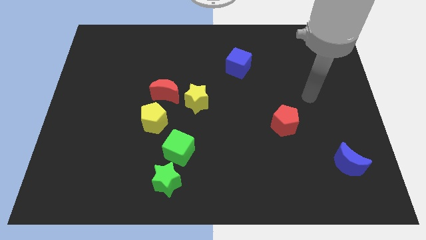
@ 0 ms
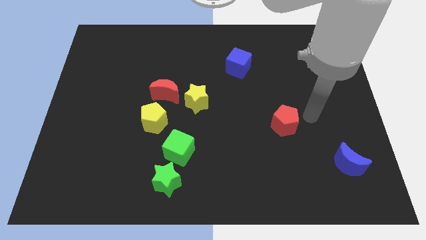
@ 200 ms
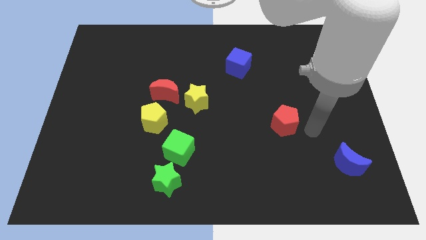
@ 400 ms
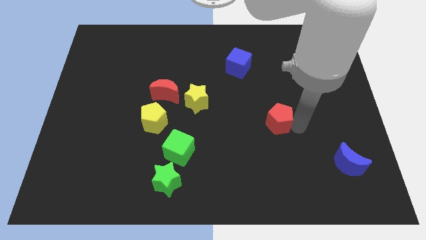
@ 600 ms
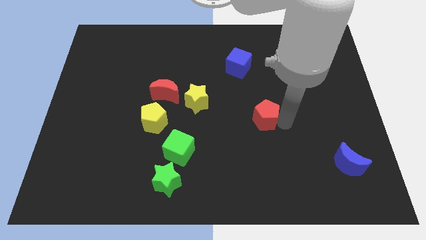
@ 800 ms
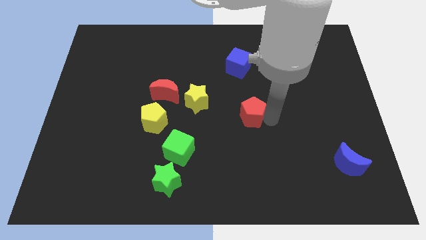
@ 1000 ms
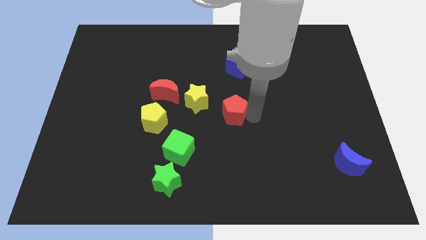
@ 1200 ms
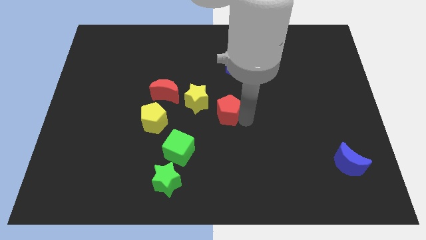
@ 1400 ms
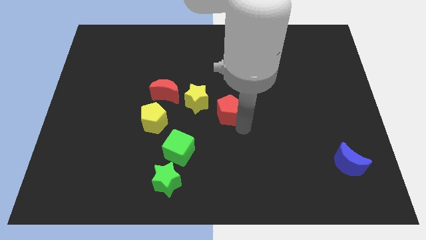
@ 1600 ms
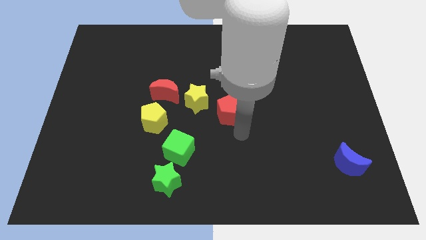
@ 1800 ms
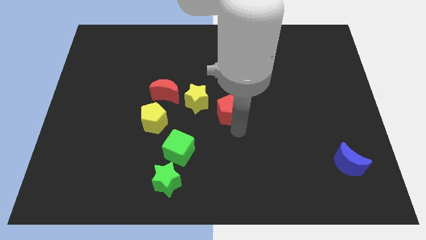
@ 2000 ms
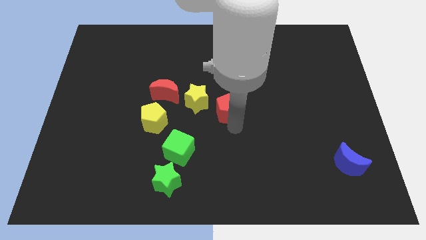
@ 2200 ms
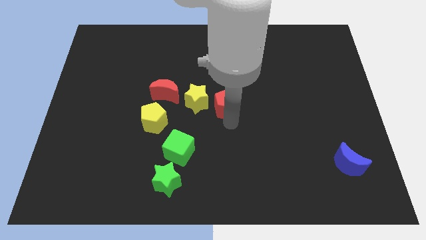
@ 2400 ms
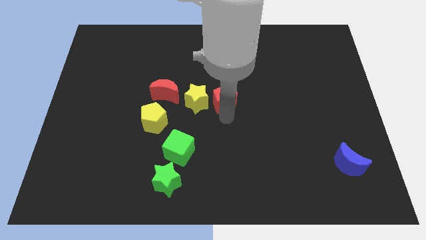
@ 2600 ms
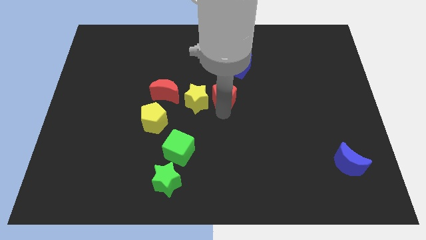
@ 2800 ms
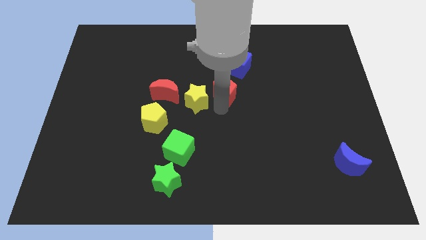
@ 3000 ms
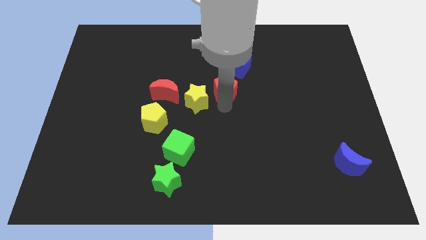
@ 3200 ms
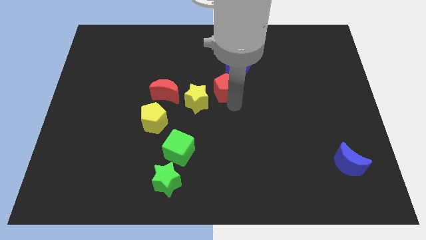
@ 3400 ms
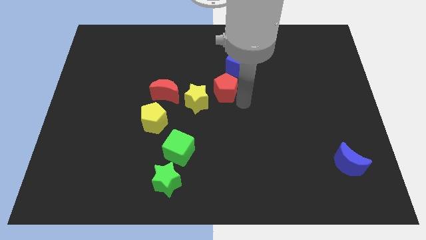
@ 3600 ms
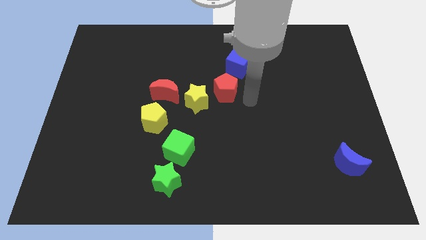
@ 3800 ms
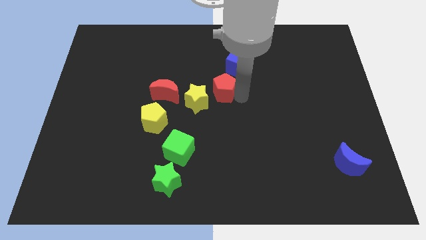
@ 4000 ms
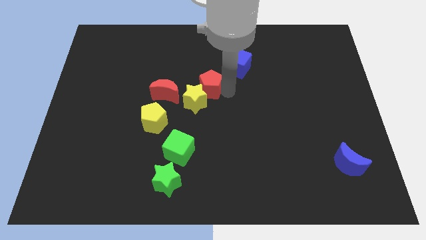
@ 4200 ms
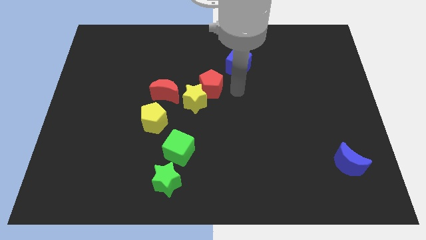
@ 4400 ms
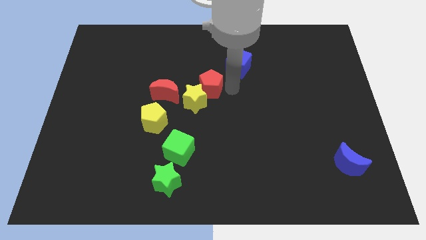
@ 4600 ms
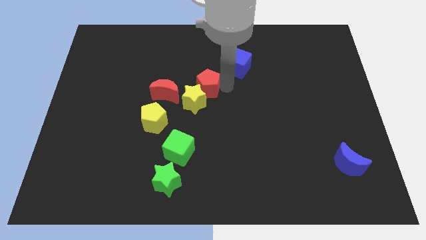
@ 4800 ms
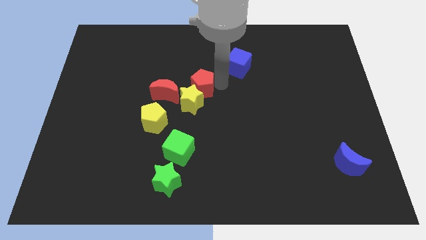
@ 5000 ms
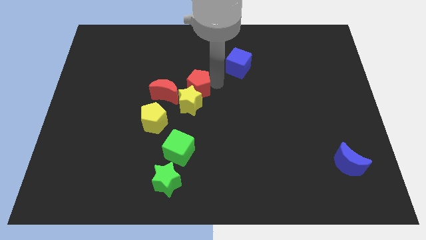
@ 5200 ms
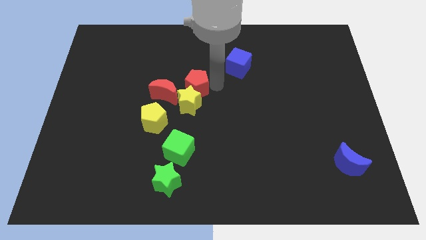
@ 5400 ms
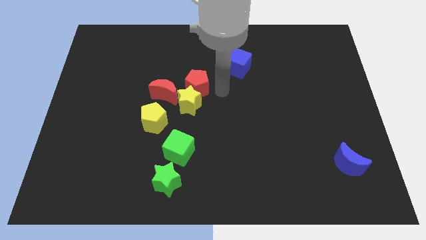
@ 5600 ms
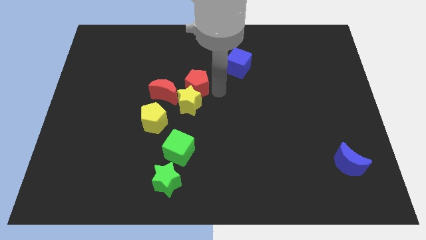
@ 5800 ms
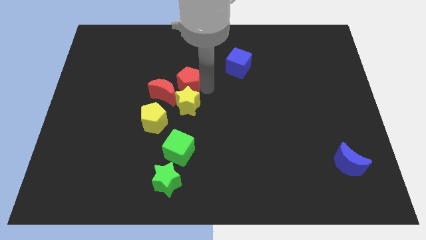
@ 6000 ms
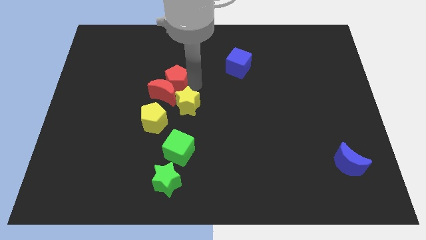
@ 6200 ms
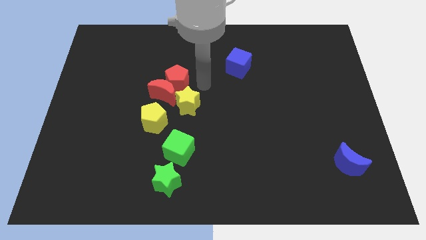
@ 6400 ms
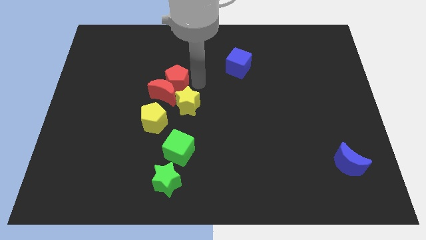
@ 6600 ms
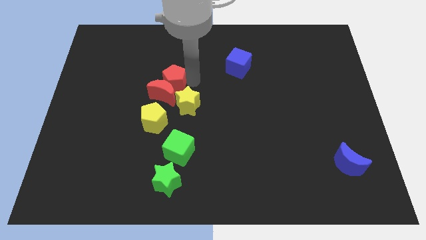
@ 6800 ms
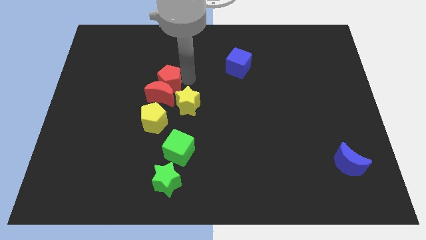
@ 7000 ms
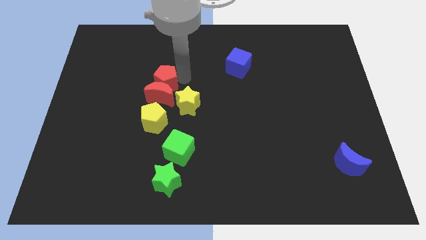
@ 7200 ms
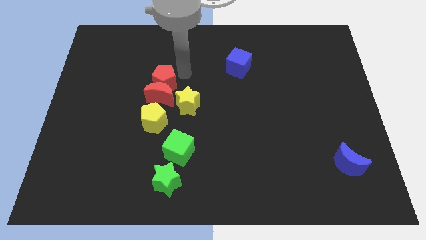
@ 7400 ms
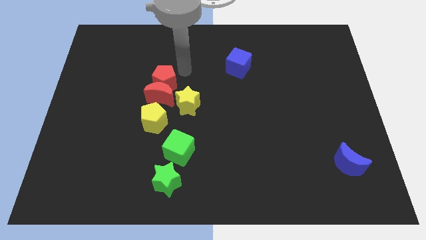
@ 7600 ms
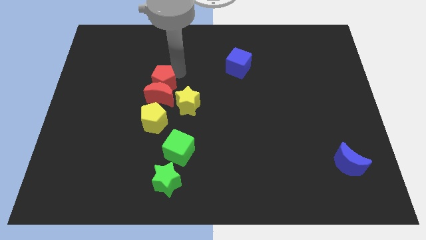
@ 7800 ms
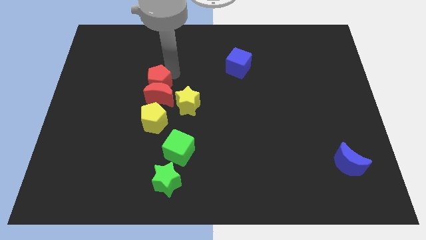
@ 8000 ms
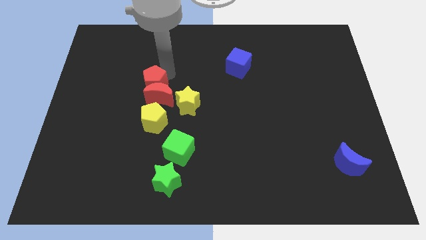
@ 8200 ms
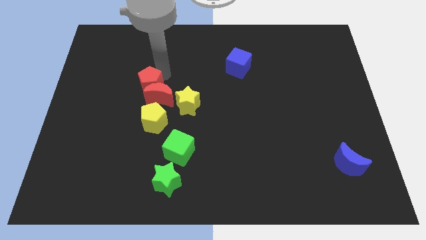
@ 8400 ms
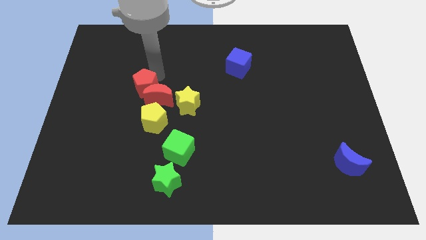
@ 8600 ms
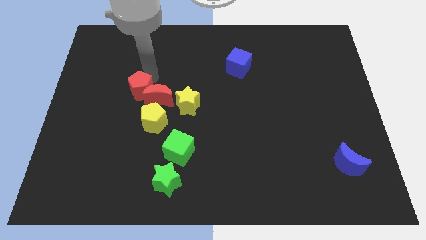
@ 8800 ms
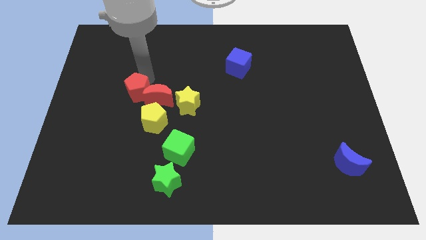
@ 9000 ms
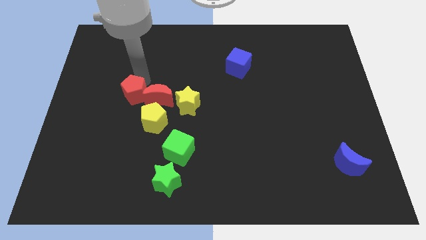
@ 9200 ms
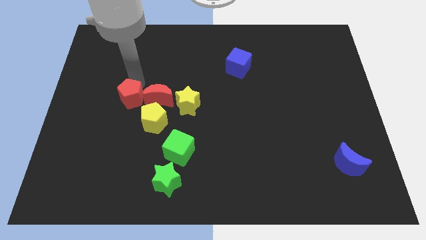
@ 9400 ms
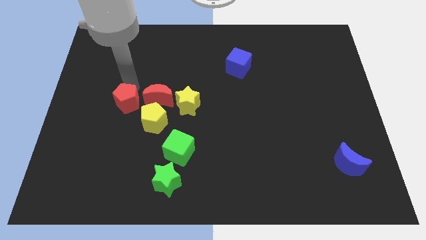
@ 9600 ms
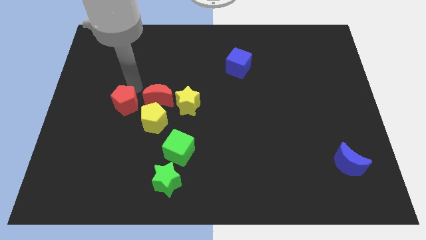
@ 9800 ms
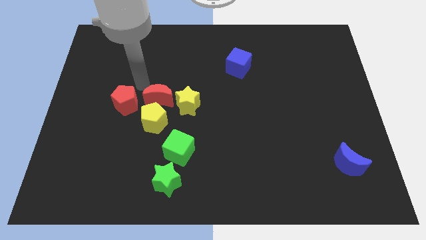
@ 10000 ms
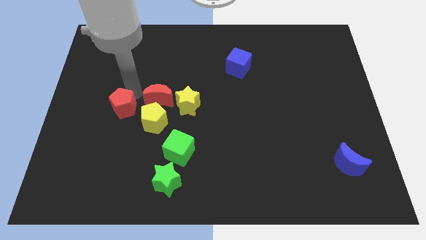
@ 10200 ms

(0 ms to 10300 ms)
push the red pentagon to the left of the yellow pentagon

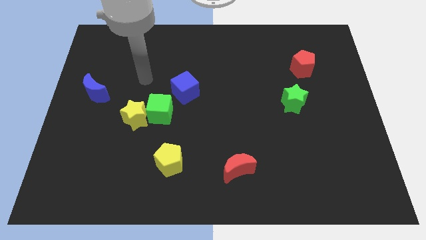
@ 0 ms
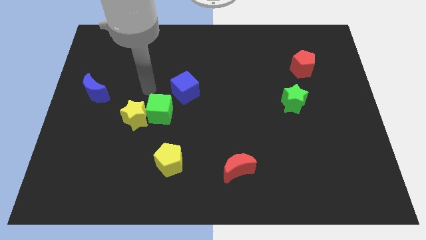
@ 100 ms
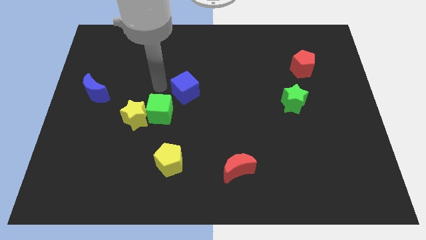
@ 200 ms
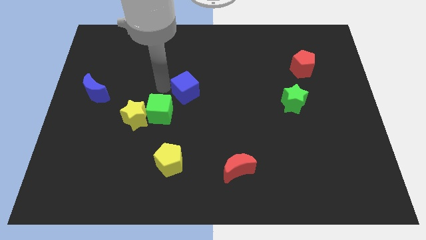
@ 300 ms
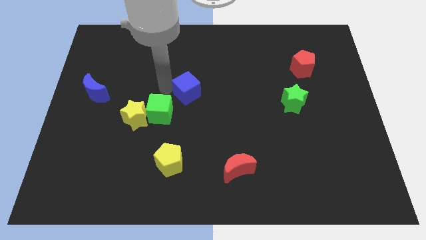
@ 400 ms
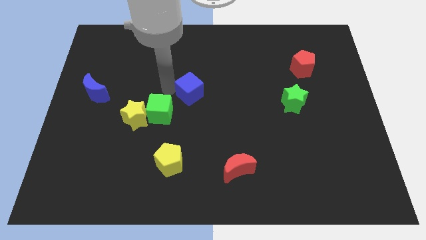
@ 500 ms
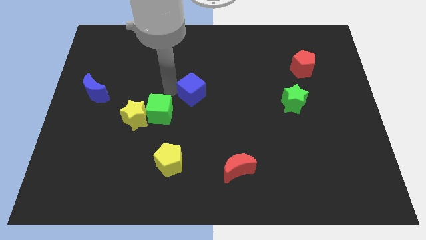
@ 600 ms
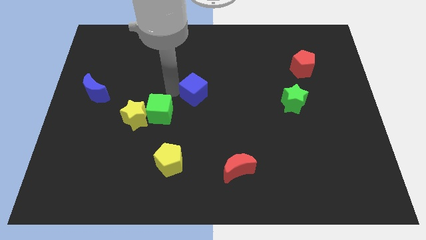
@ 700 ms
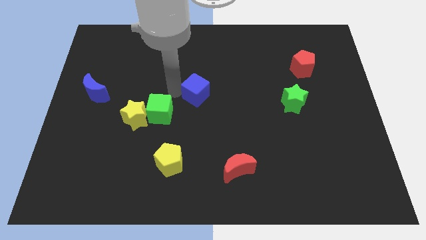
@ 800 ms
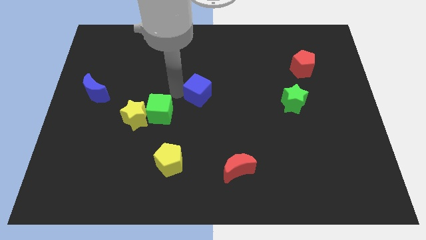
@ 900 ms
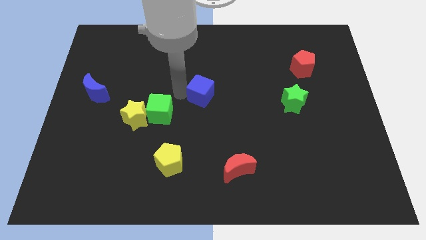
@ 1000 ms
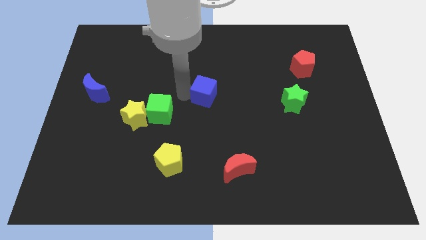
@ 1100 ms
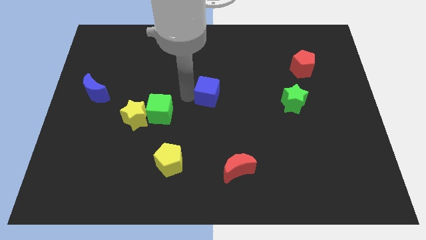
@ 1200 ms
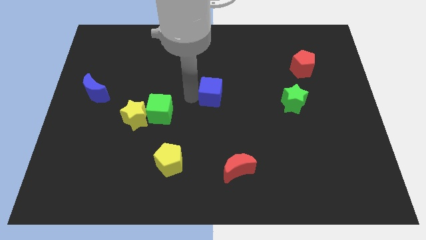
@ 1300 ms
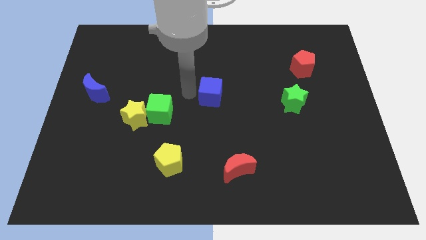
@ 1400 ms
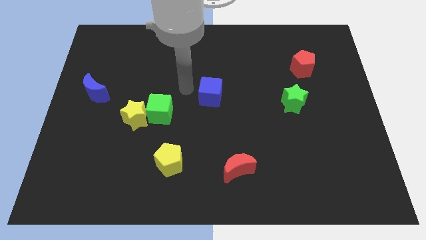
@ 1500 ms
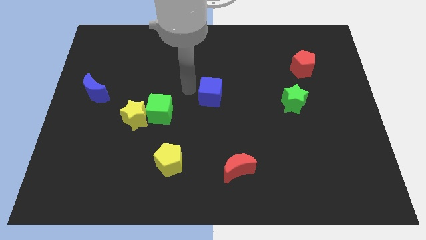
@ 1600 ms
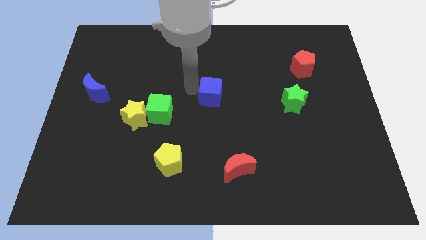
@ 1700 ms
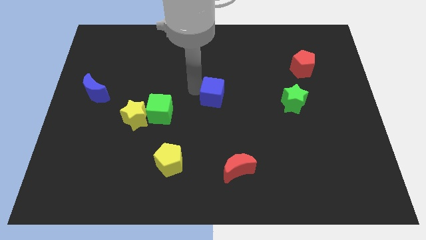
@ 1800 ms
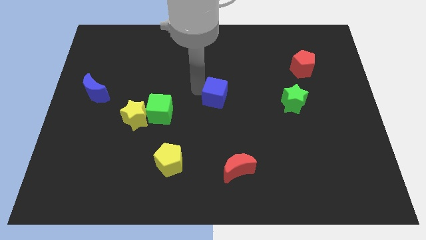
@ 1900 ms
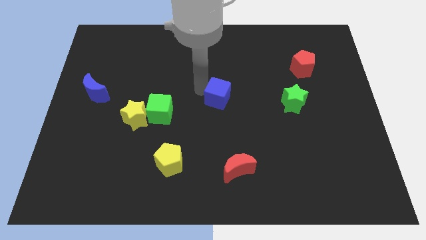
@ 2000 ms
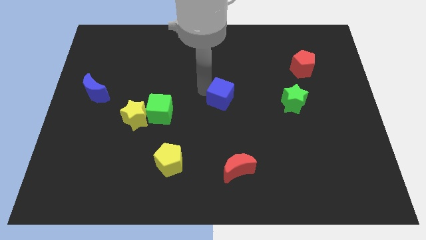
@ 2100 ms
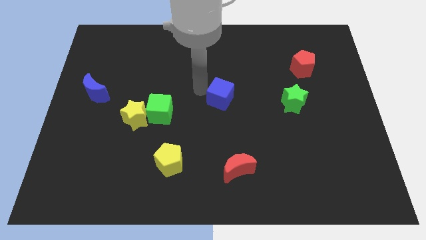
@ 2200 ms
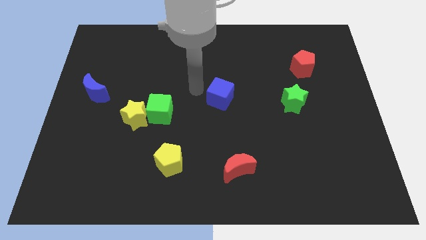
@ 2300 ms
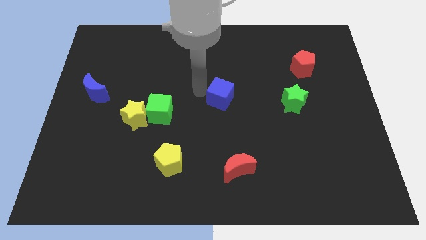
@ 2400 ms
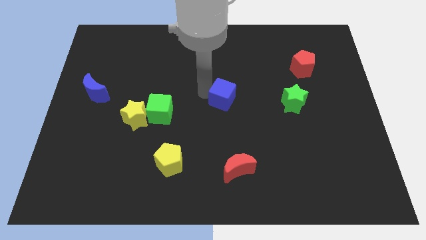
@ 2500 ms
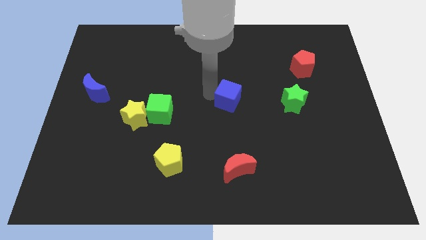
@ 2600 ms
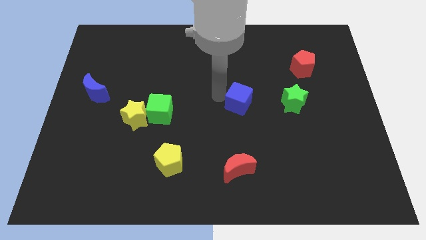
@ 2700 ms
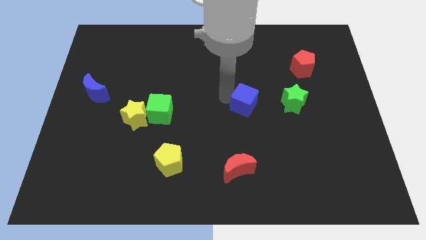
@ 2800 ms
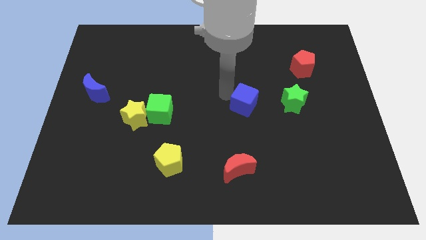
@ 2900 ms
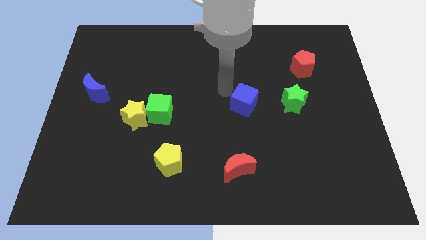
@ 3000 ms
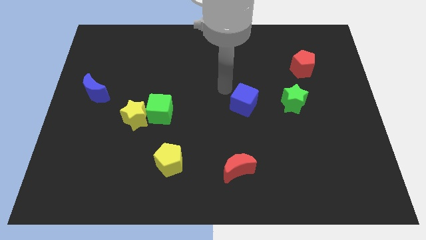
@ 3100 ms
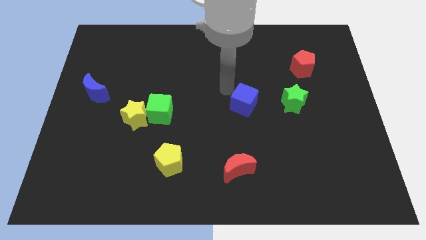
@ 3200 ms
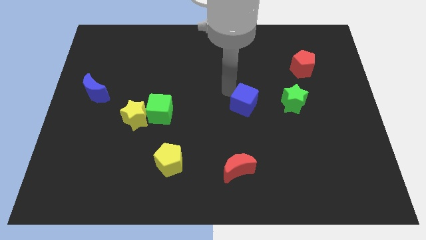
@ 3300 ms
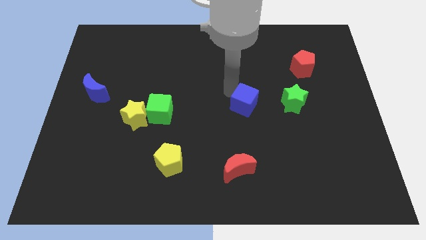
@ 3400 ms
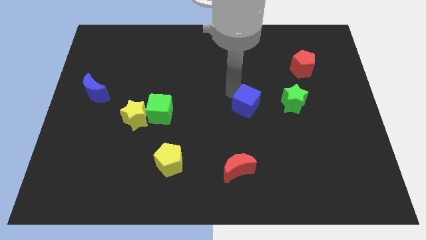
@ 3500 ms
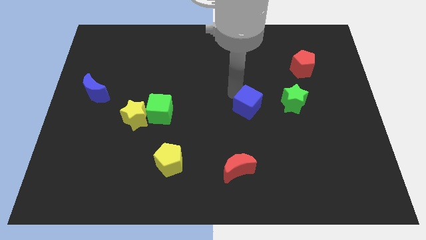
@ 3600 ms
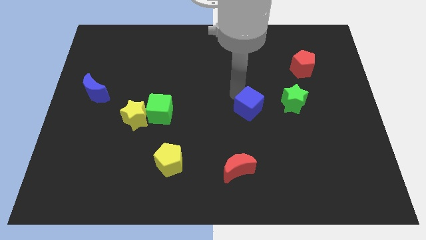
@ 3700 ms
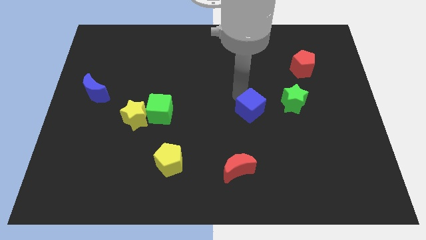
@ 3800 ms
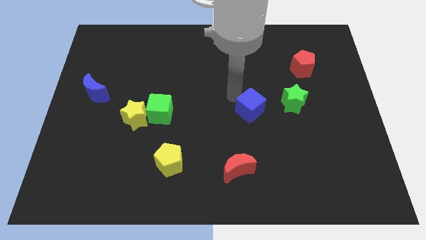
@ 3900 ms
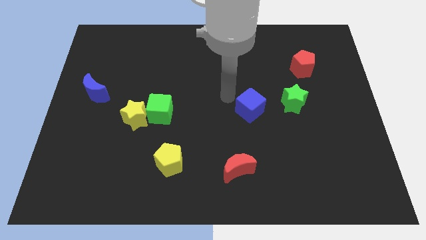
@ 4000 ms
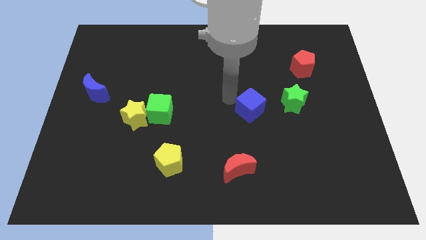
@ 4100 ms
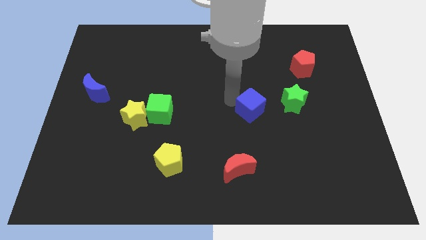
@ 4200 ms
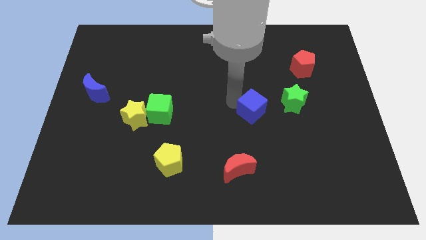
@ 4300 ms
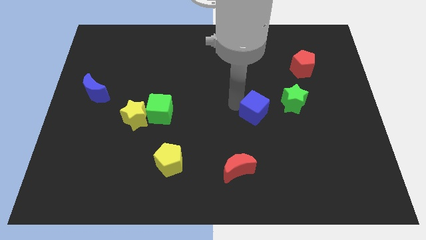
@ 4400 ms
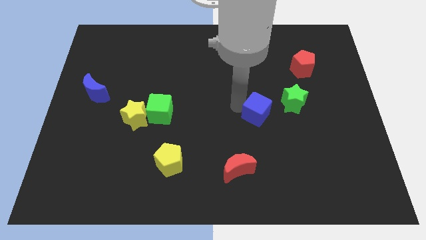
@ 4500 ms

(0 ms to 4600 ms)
put the blue cube to the bottom left of the green star
